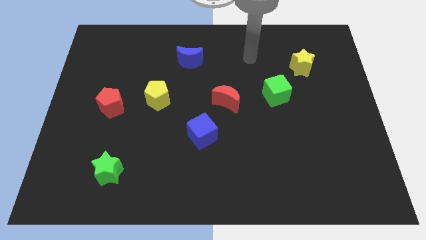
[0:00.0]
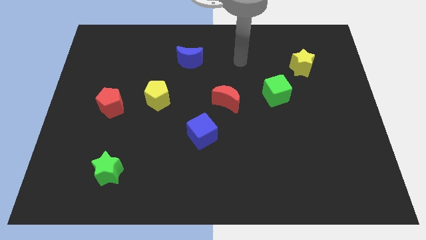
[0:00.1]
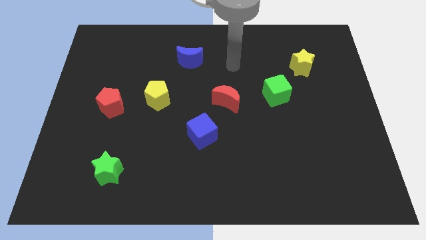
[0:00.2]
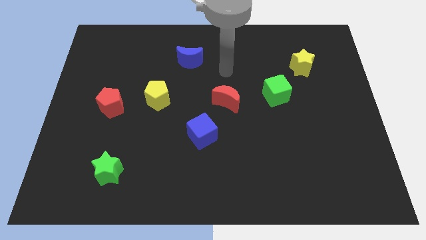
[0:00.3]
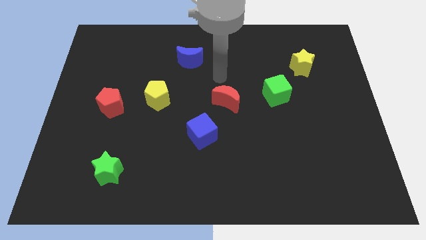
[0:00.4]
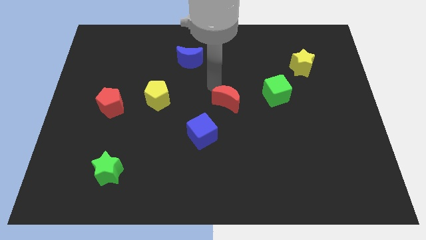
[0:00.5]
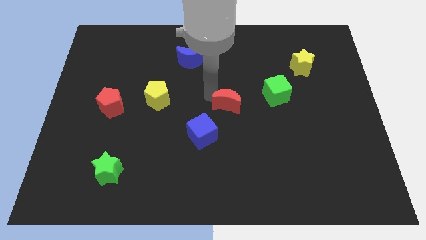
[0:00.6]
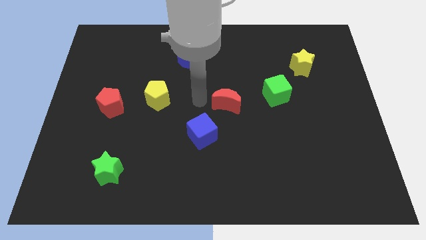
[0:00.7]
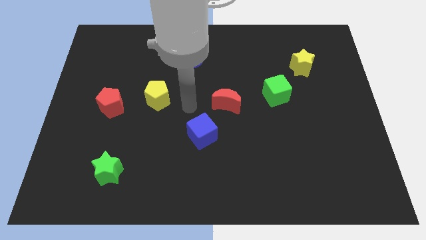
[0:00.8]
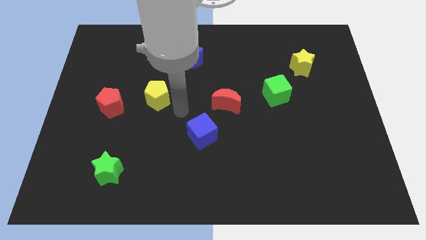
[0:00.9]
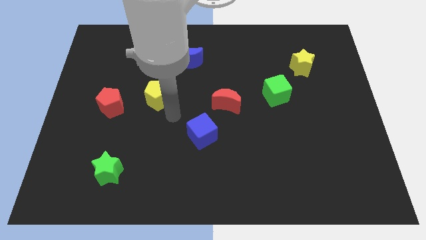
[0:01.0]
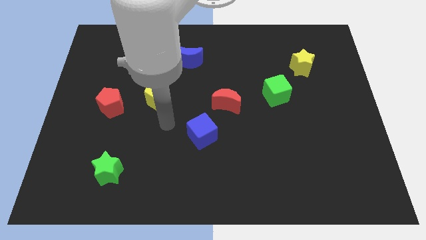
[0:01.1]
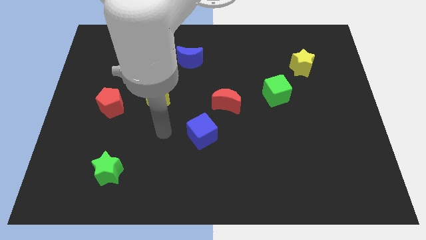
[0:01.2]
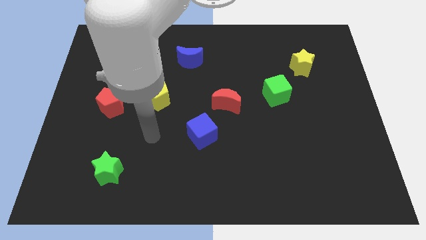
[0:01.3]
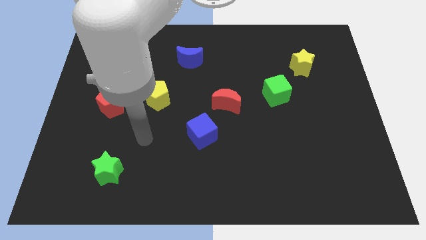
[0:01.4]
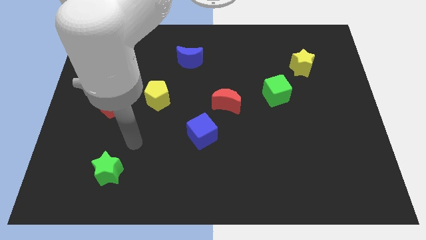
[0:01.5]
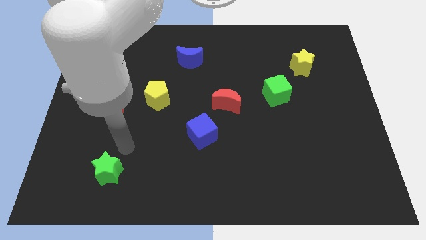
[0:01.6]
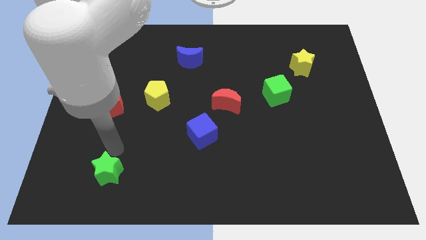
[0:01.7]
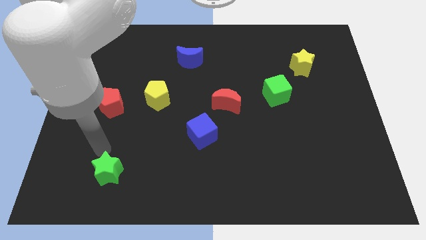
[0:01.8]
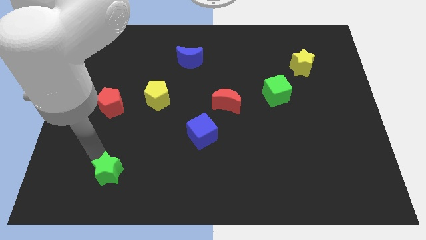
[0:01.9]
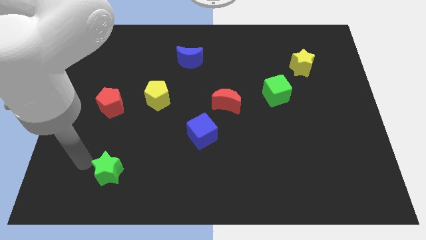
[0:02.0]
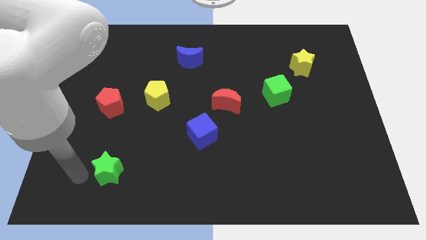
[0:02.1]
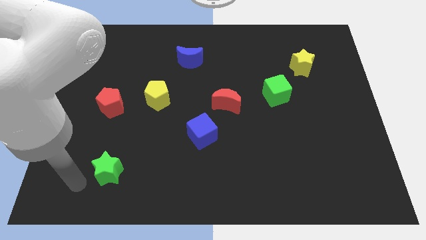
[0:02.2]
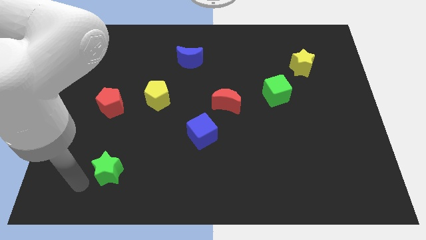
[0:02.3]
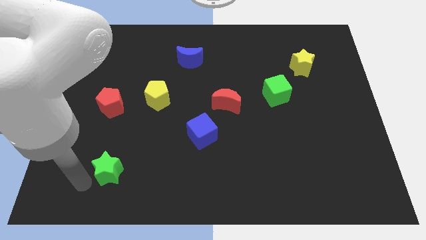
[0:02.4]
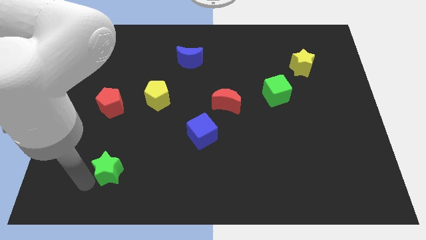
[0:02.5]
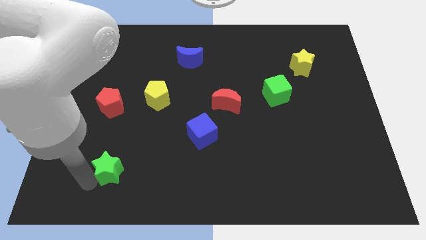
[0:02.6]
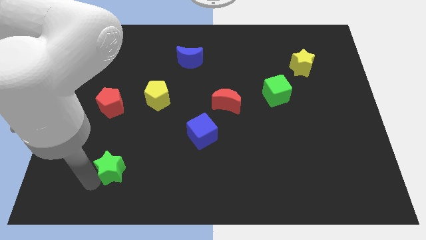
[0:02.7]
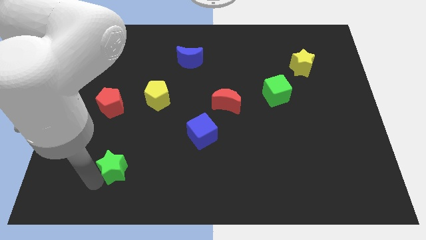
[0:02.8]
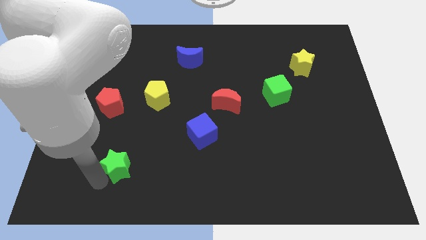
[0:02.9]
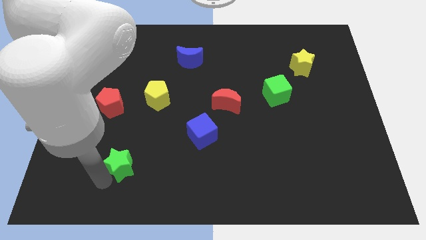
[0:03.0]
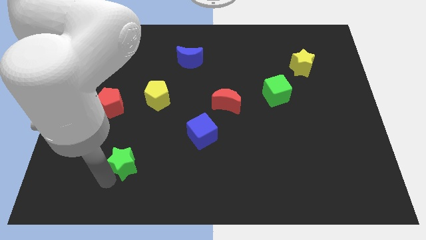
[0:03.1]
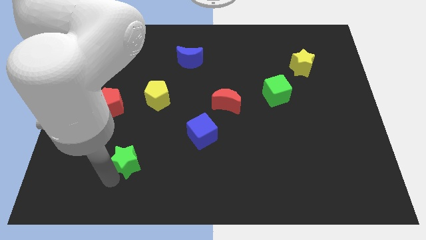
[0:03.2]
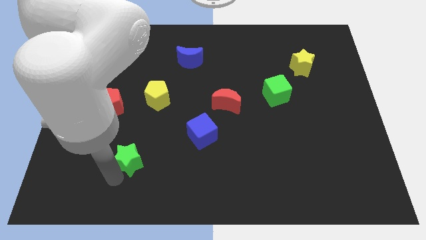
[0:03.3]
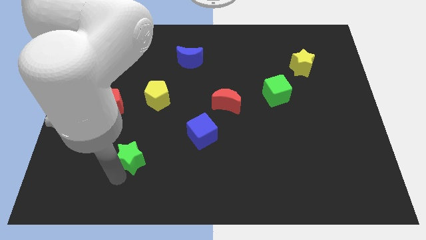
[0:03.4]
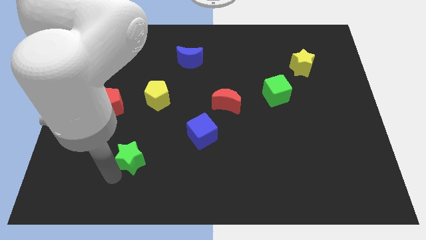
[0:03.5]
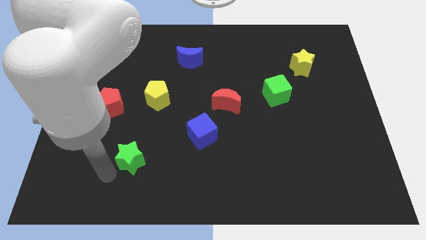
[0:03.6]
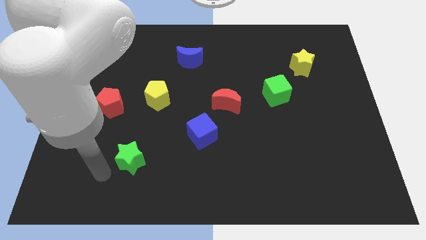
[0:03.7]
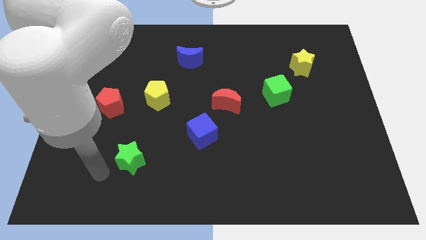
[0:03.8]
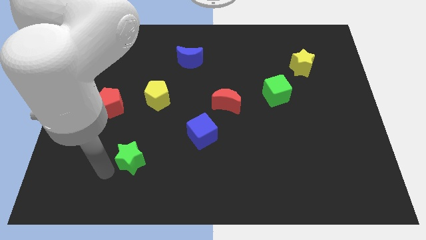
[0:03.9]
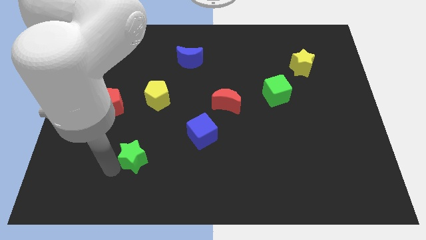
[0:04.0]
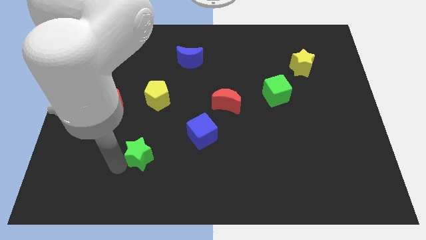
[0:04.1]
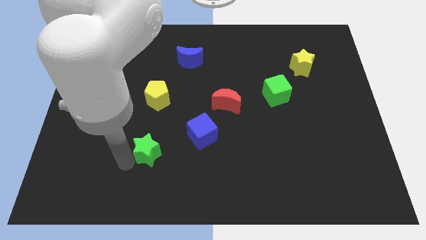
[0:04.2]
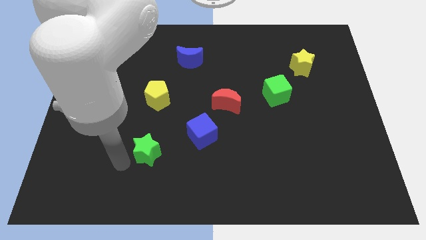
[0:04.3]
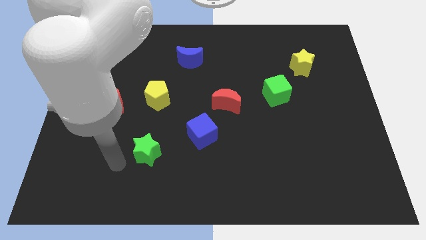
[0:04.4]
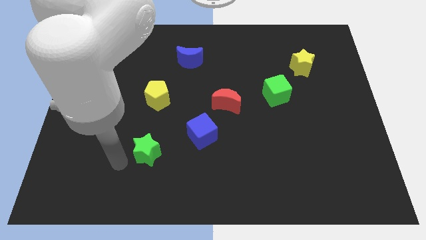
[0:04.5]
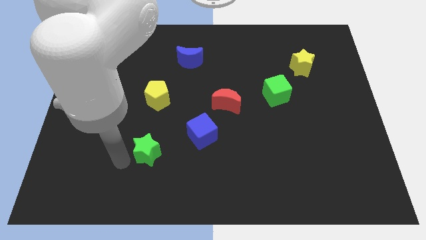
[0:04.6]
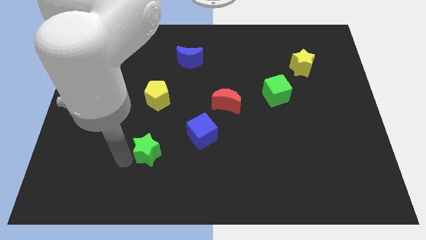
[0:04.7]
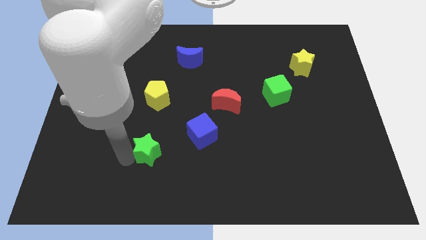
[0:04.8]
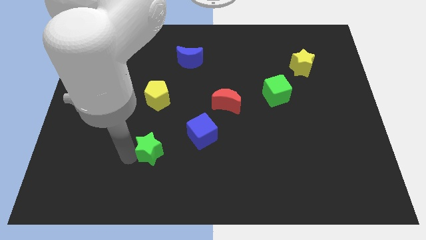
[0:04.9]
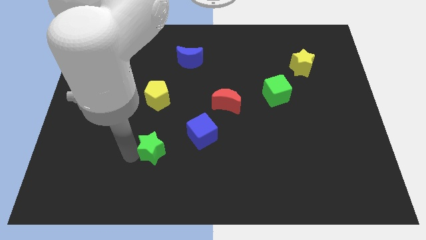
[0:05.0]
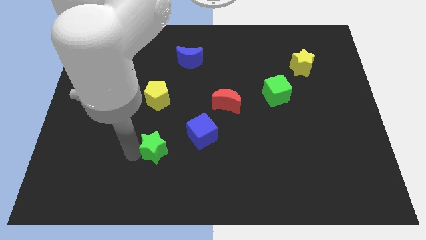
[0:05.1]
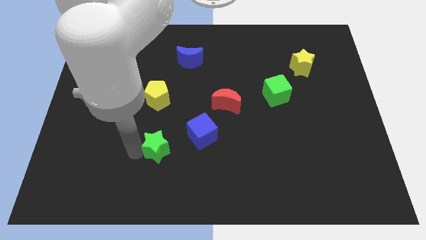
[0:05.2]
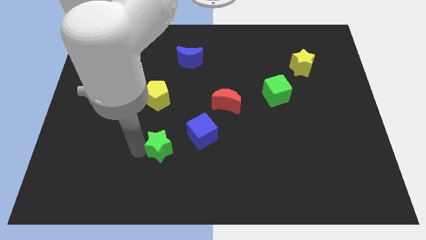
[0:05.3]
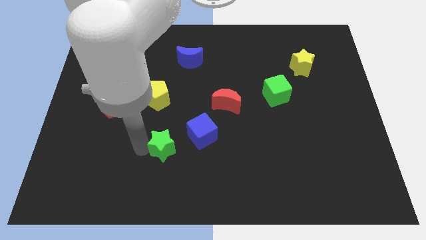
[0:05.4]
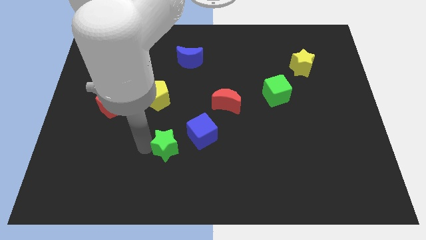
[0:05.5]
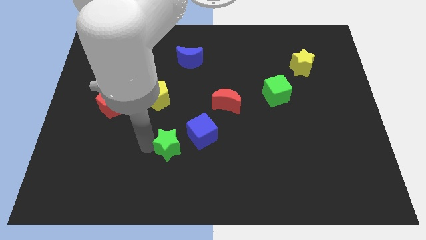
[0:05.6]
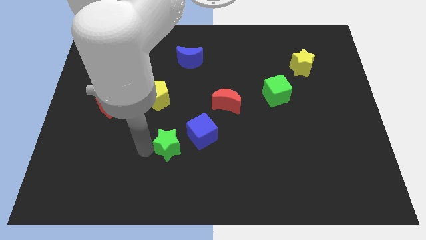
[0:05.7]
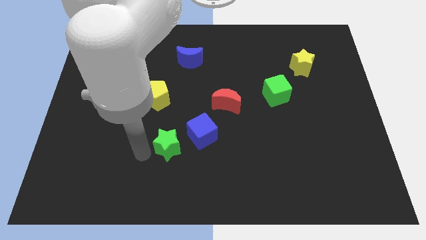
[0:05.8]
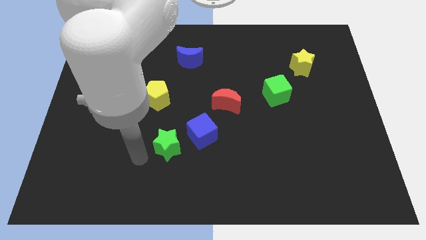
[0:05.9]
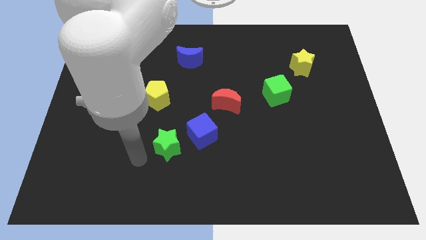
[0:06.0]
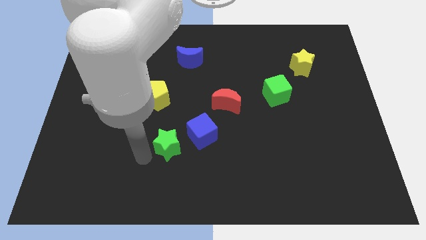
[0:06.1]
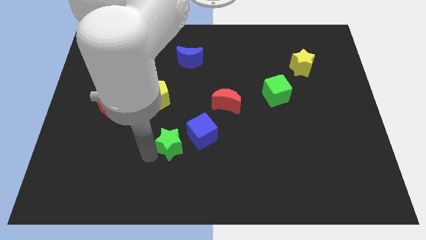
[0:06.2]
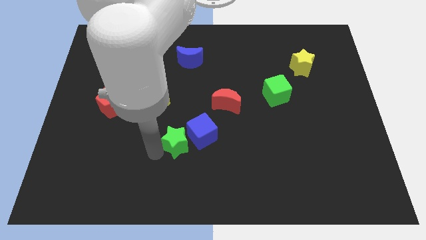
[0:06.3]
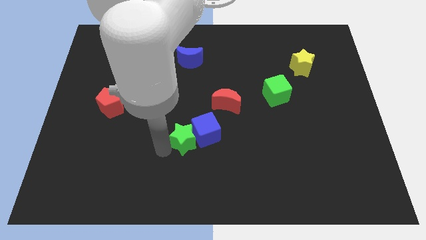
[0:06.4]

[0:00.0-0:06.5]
put the green star close to the blue cube

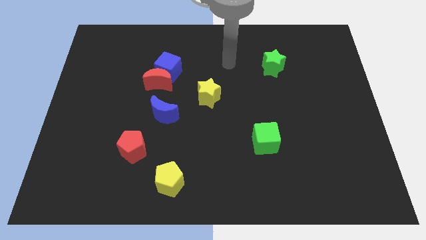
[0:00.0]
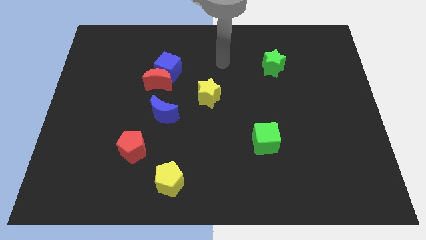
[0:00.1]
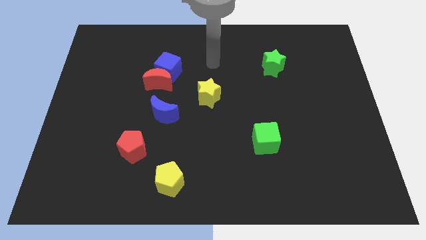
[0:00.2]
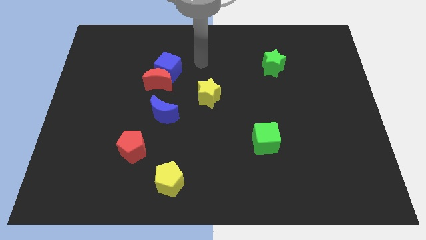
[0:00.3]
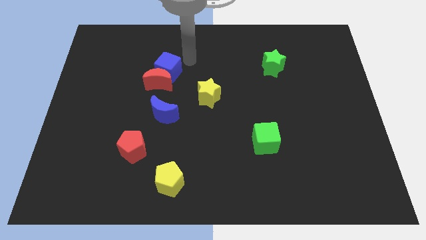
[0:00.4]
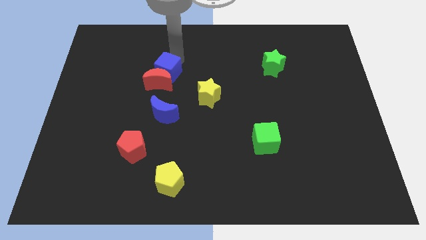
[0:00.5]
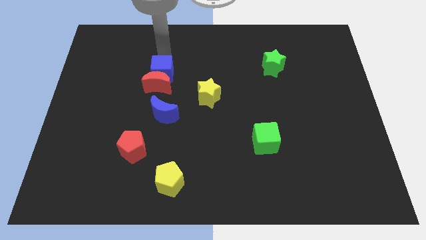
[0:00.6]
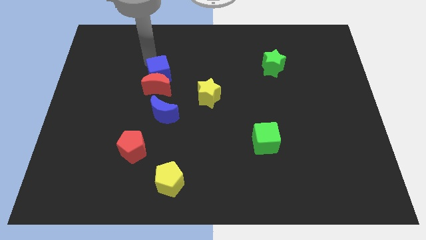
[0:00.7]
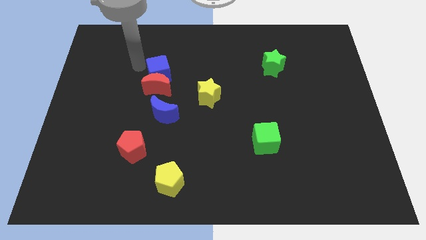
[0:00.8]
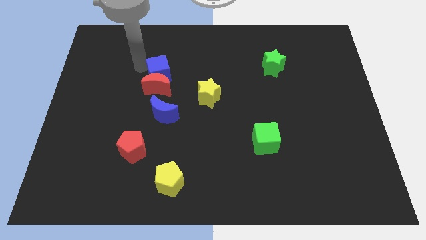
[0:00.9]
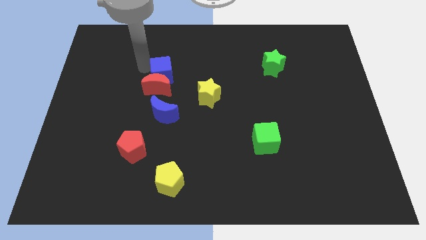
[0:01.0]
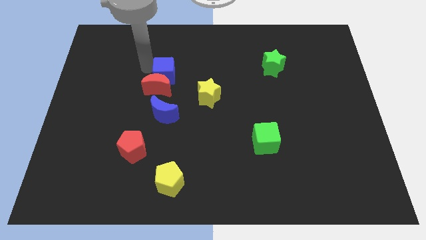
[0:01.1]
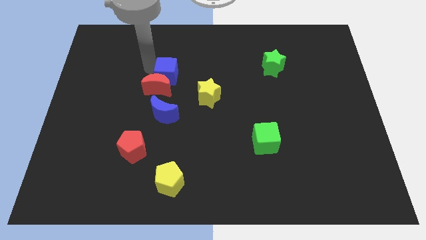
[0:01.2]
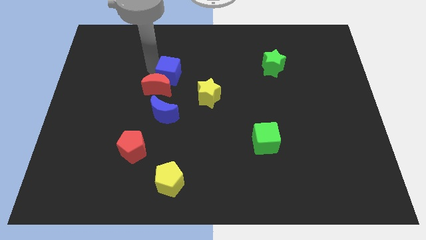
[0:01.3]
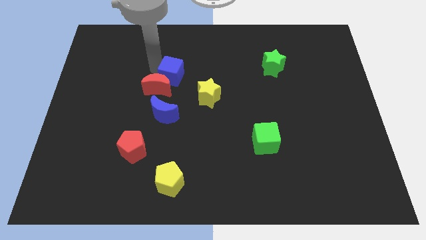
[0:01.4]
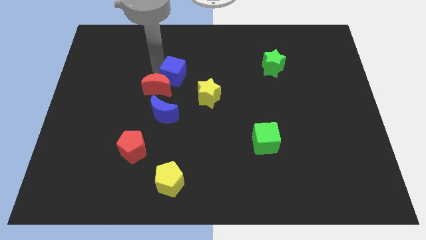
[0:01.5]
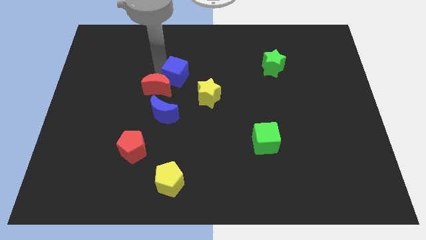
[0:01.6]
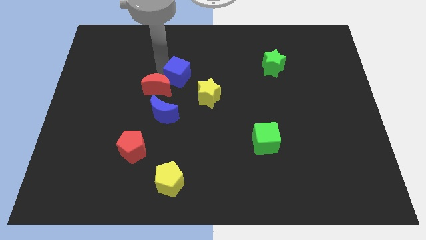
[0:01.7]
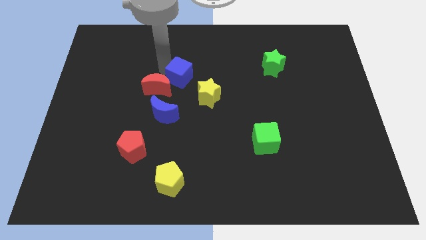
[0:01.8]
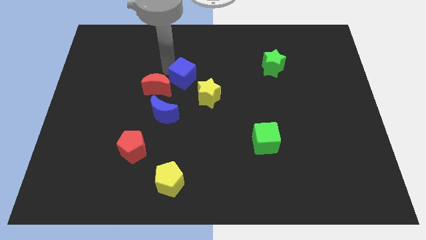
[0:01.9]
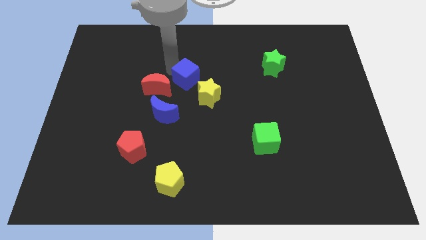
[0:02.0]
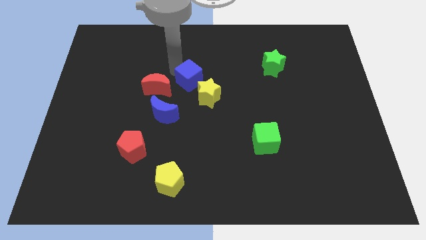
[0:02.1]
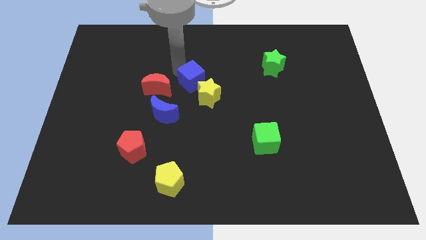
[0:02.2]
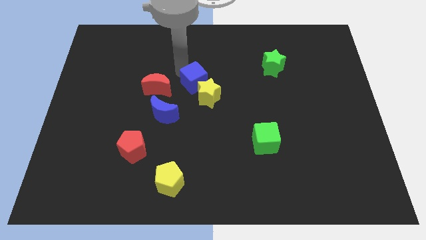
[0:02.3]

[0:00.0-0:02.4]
slide the blue cube next to the yellow star
